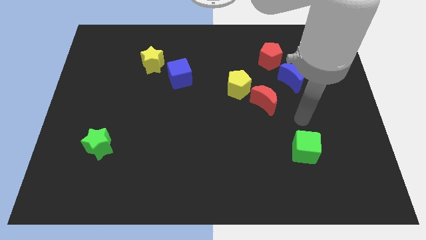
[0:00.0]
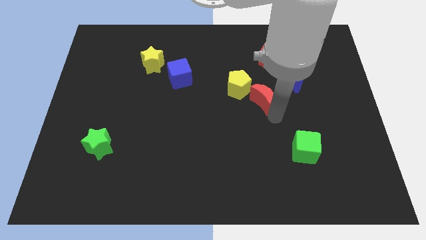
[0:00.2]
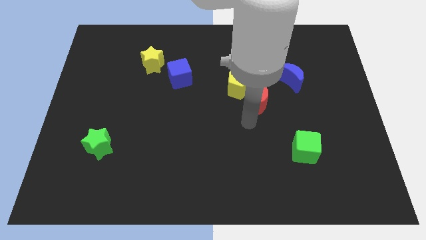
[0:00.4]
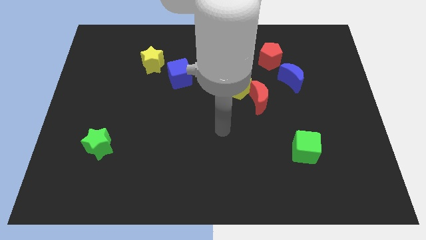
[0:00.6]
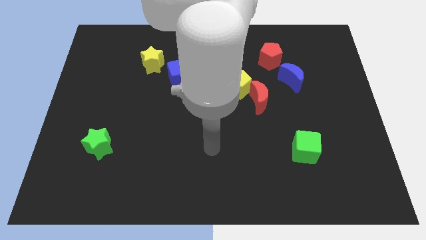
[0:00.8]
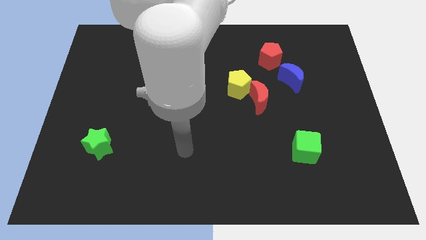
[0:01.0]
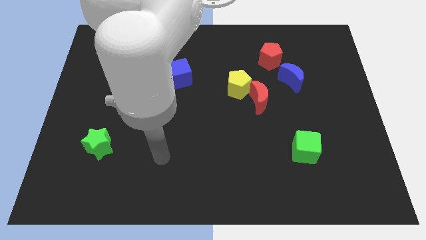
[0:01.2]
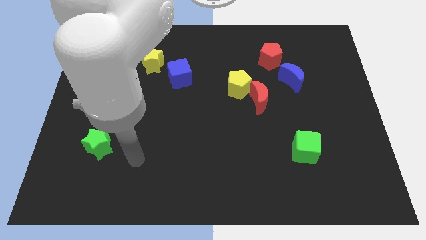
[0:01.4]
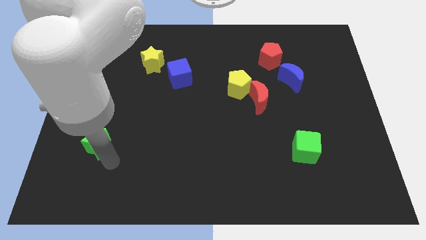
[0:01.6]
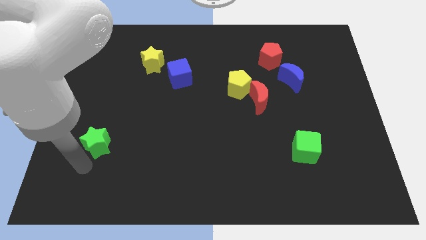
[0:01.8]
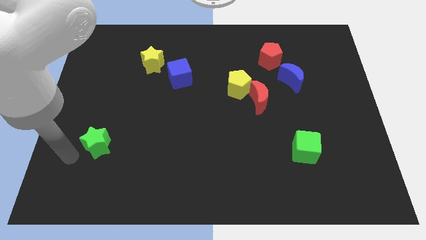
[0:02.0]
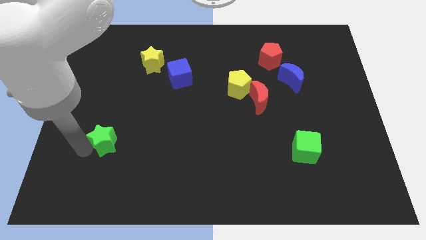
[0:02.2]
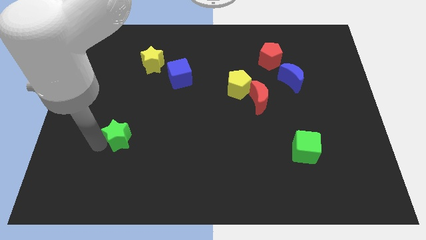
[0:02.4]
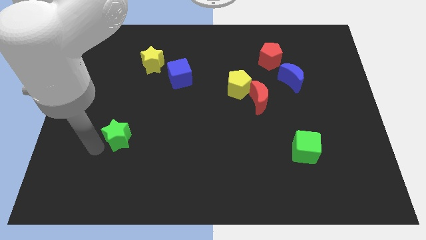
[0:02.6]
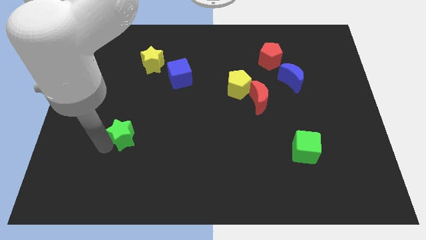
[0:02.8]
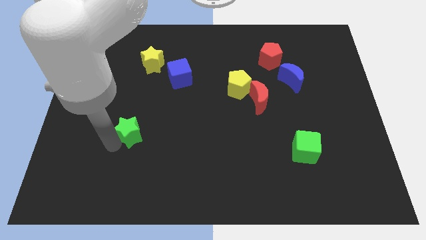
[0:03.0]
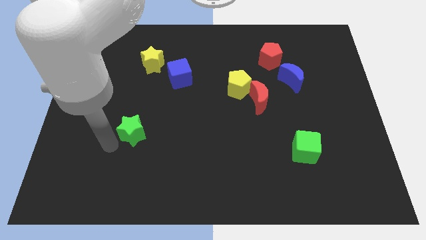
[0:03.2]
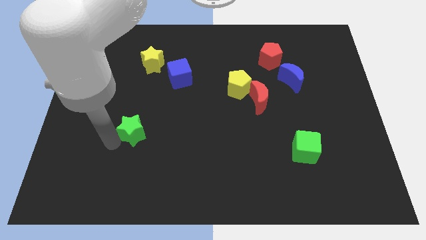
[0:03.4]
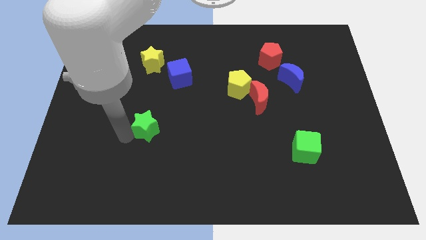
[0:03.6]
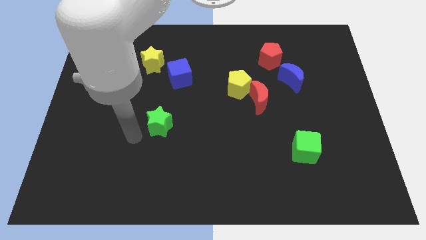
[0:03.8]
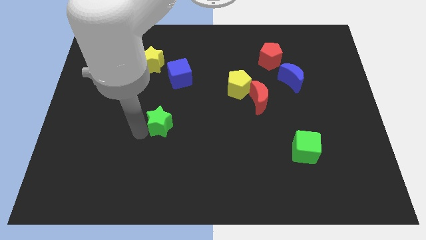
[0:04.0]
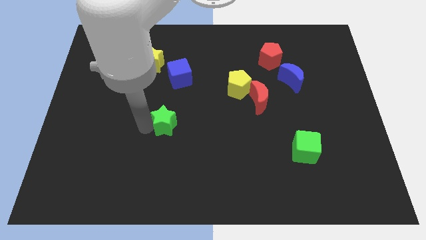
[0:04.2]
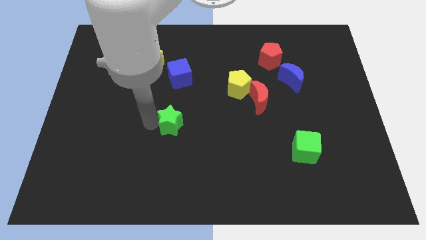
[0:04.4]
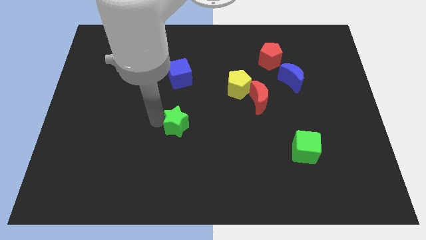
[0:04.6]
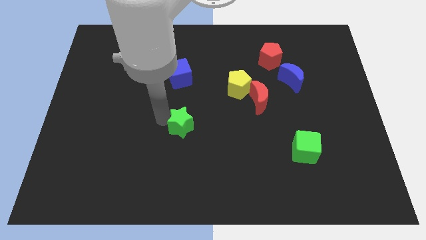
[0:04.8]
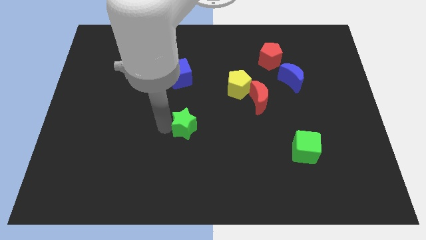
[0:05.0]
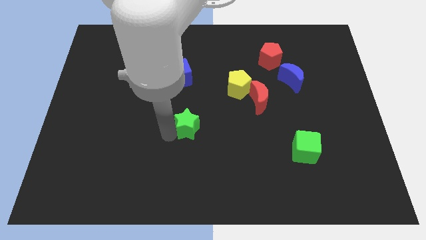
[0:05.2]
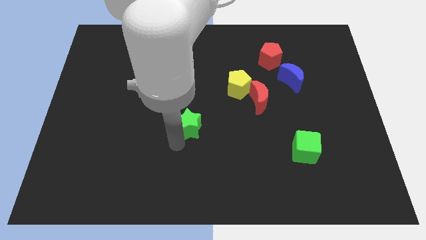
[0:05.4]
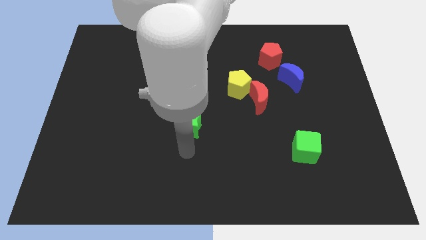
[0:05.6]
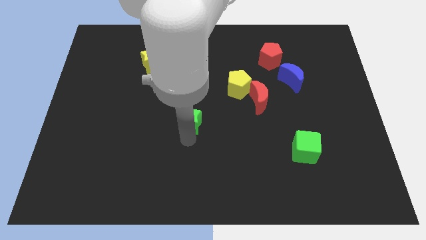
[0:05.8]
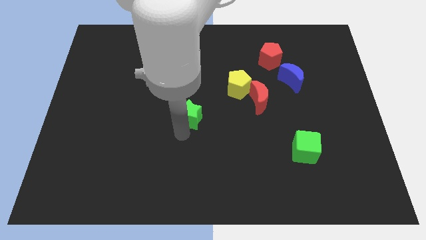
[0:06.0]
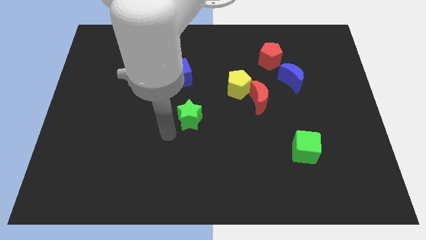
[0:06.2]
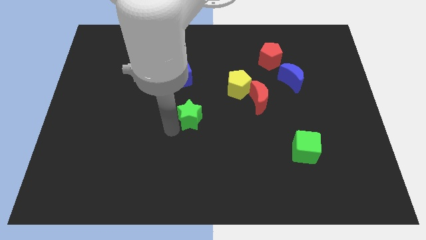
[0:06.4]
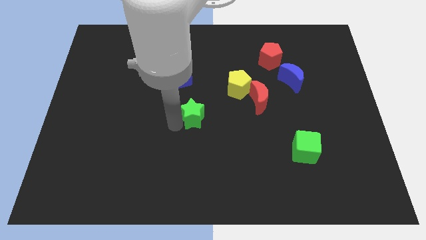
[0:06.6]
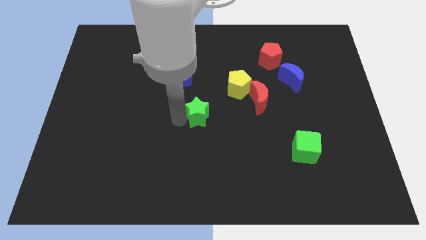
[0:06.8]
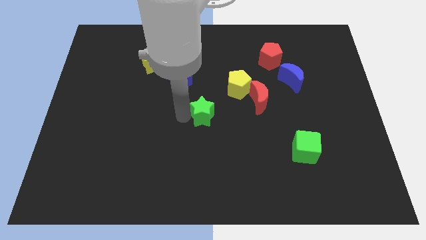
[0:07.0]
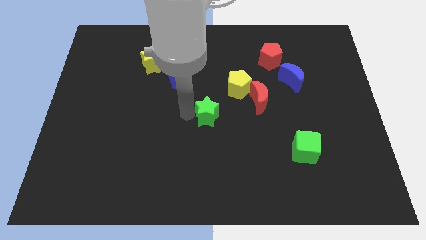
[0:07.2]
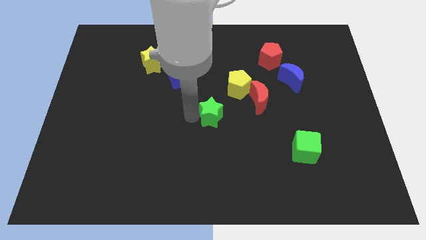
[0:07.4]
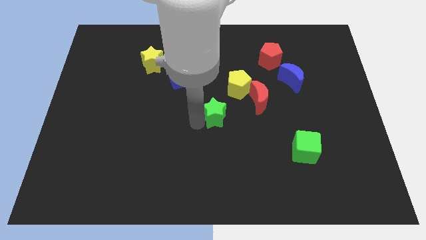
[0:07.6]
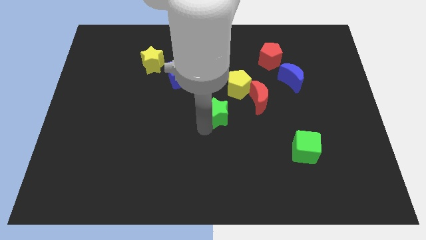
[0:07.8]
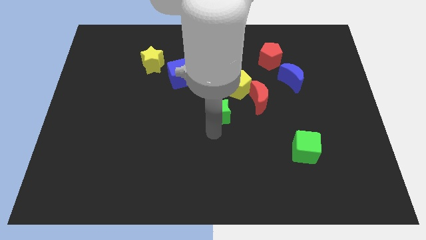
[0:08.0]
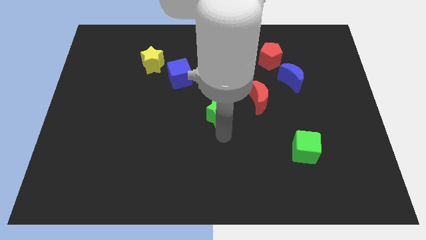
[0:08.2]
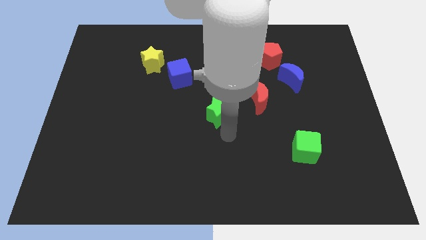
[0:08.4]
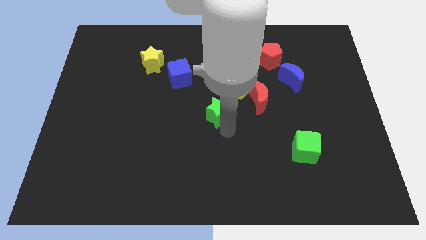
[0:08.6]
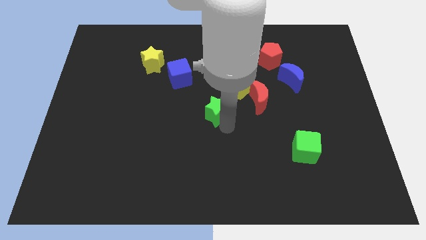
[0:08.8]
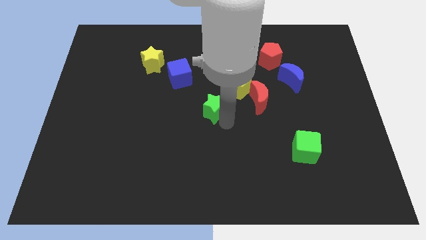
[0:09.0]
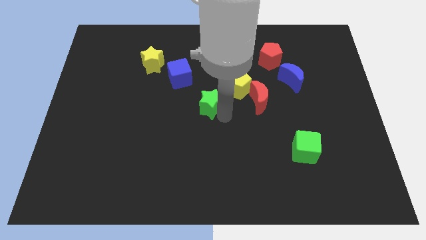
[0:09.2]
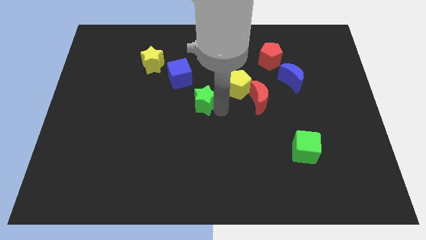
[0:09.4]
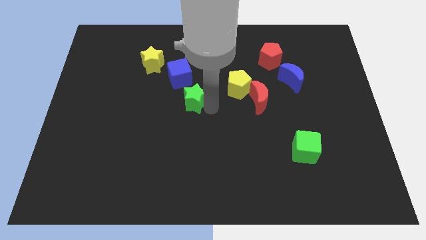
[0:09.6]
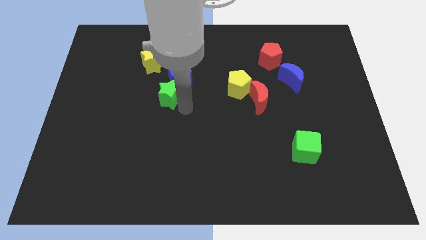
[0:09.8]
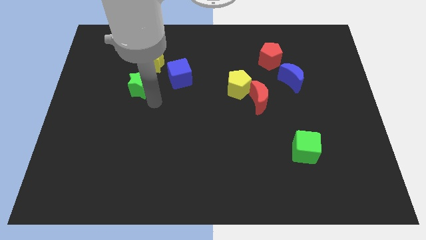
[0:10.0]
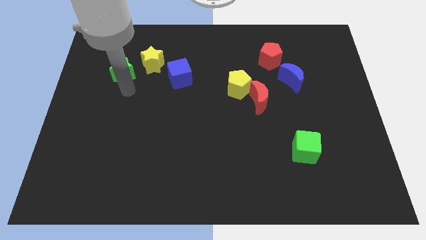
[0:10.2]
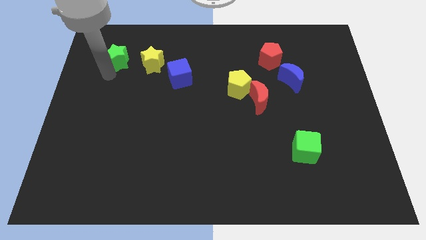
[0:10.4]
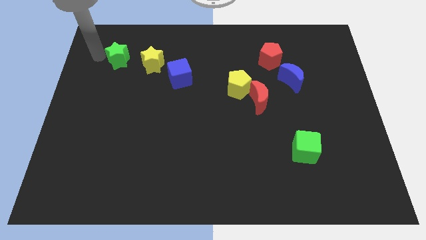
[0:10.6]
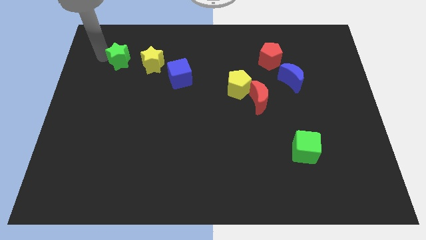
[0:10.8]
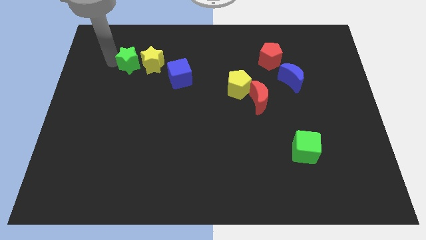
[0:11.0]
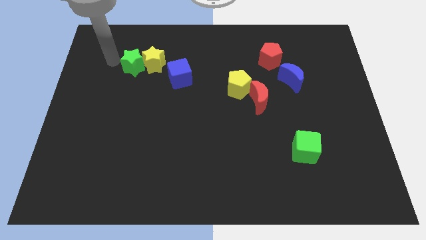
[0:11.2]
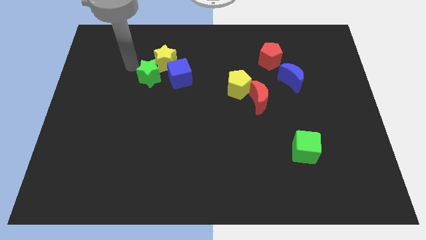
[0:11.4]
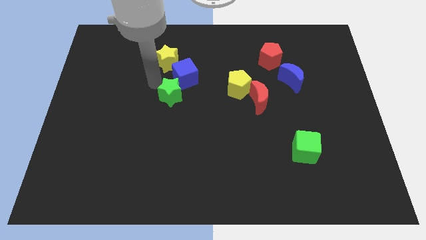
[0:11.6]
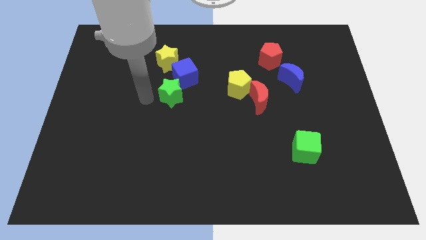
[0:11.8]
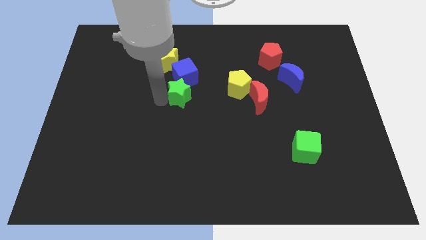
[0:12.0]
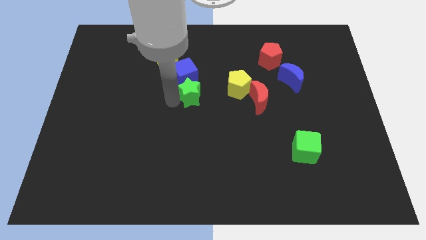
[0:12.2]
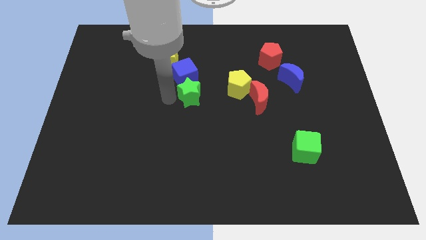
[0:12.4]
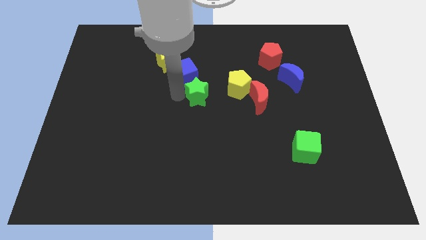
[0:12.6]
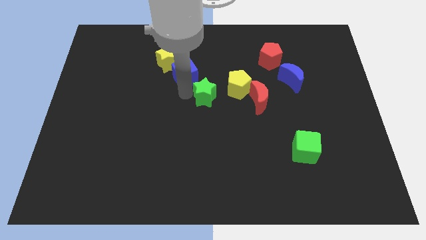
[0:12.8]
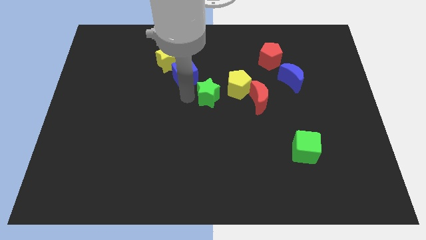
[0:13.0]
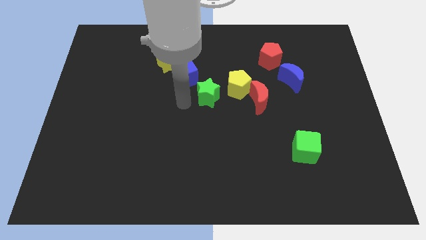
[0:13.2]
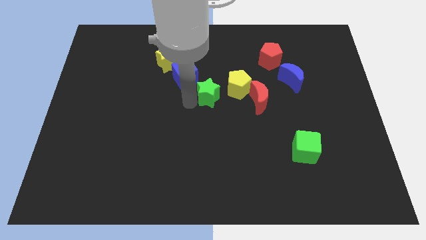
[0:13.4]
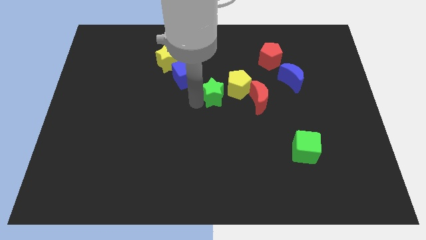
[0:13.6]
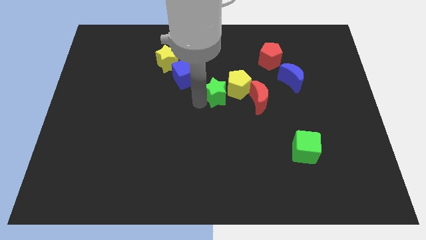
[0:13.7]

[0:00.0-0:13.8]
move the green star towards the yellow pentagon
